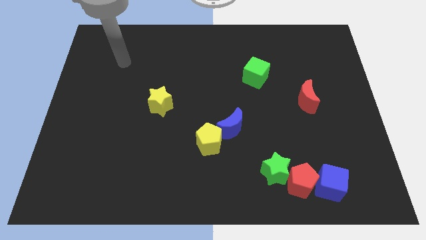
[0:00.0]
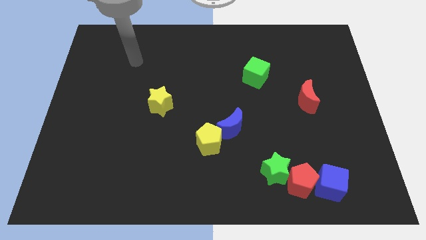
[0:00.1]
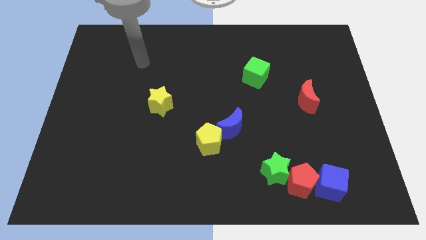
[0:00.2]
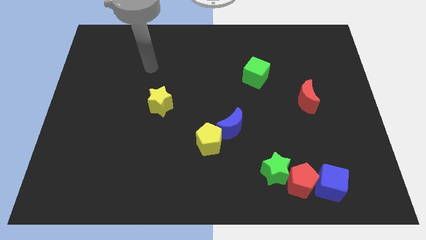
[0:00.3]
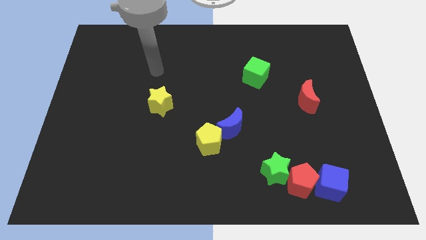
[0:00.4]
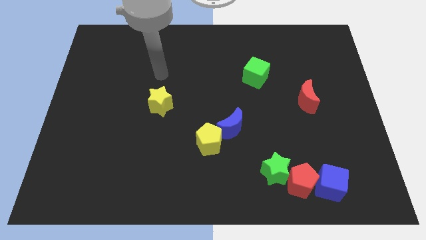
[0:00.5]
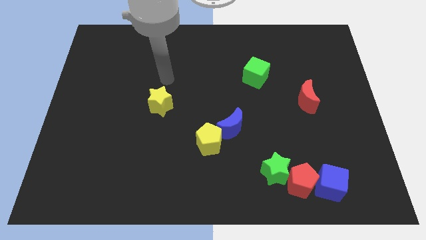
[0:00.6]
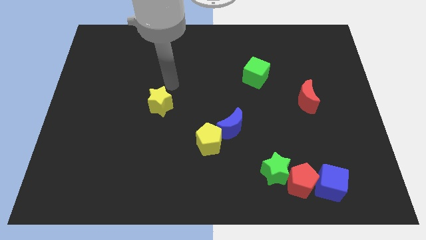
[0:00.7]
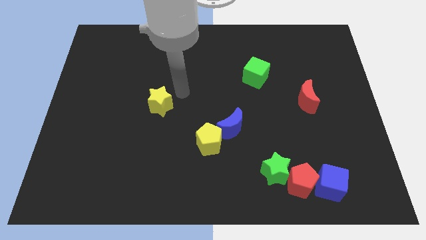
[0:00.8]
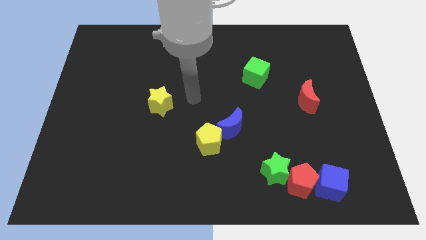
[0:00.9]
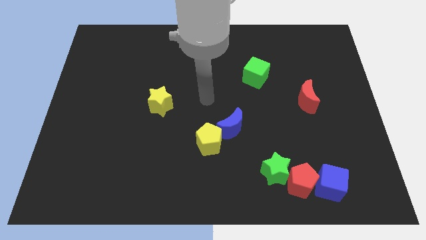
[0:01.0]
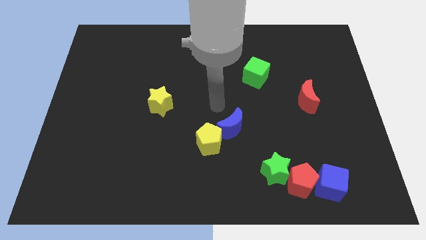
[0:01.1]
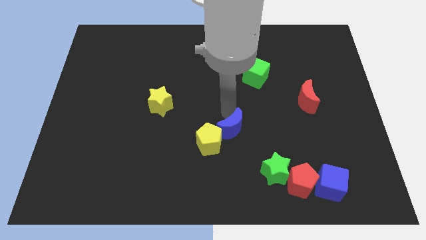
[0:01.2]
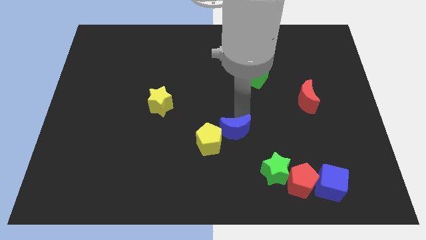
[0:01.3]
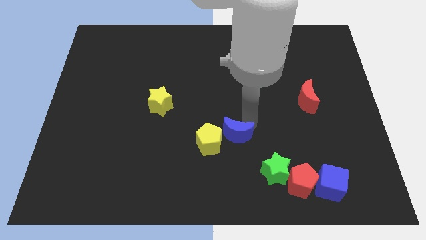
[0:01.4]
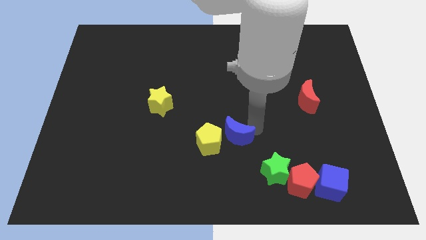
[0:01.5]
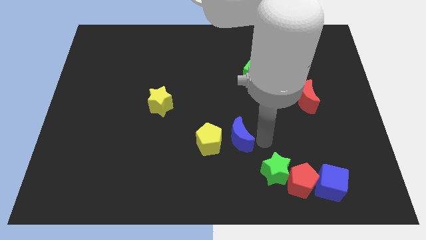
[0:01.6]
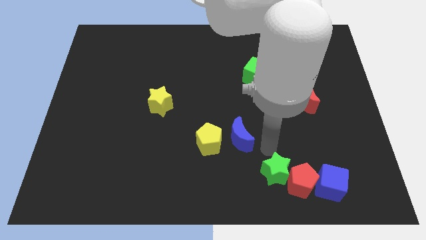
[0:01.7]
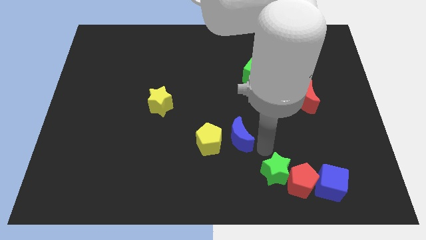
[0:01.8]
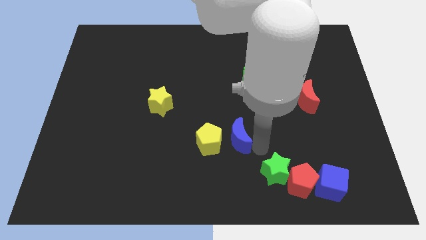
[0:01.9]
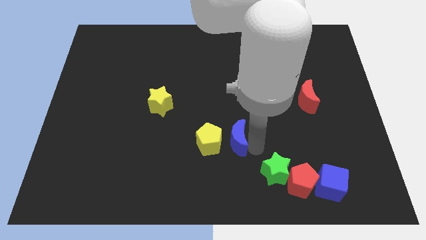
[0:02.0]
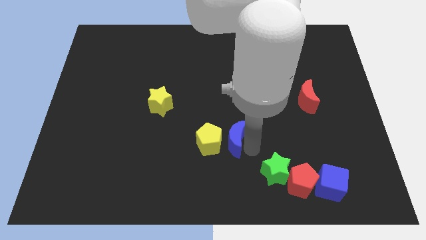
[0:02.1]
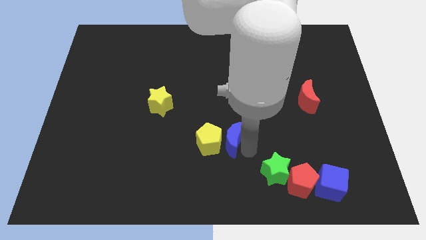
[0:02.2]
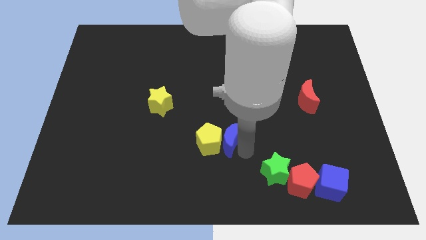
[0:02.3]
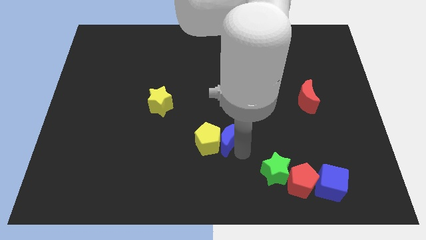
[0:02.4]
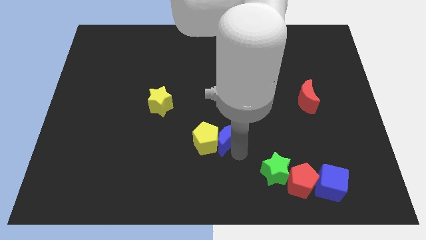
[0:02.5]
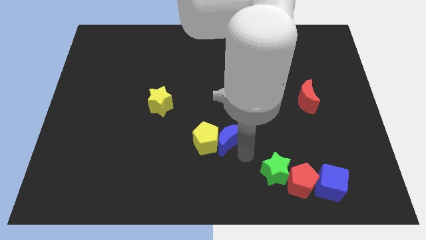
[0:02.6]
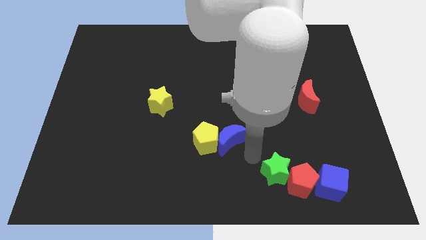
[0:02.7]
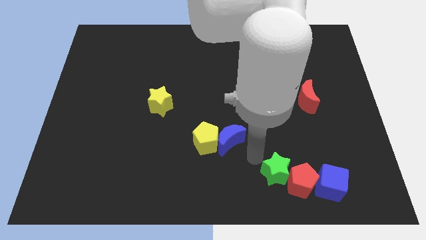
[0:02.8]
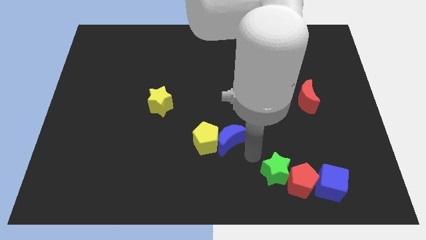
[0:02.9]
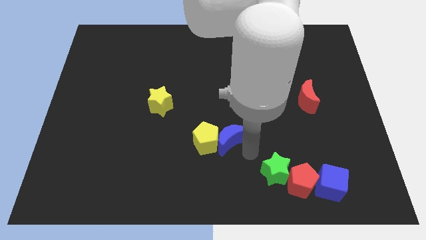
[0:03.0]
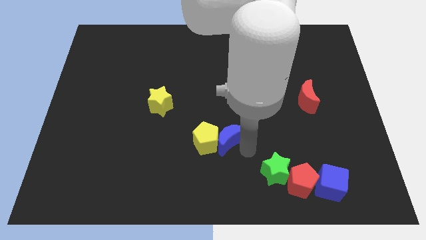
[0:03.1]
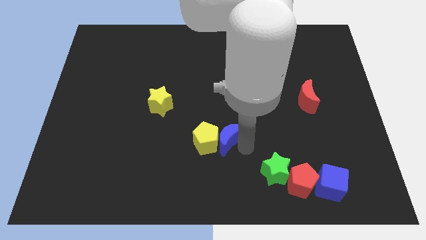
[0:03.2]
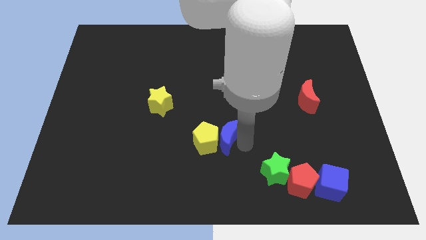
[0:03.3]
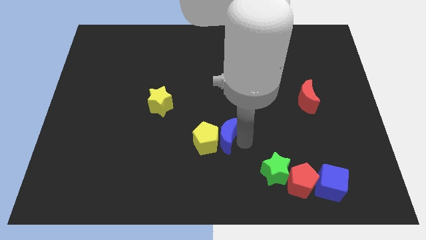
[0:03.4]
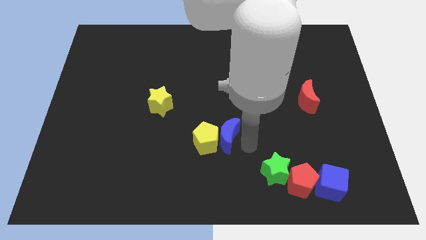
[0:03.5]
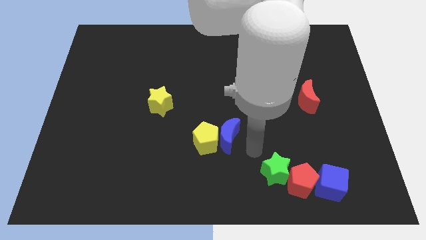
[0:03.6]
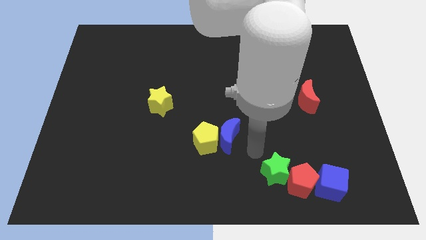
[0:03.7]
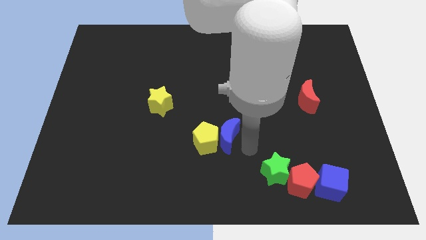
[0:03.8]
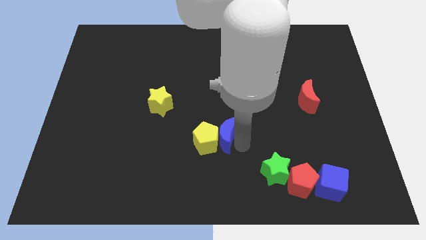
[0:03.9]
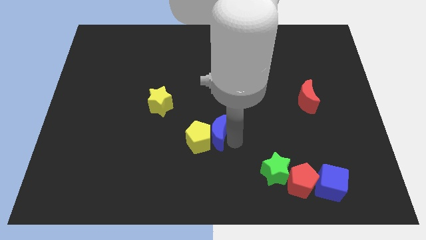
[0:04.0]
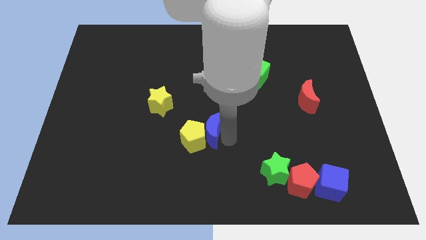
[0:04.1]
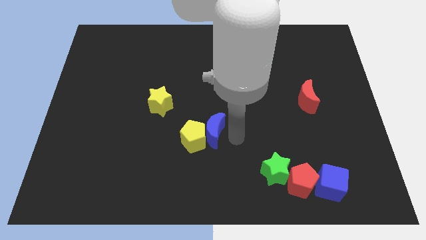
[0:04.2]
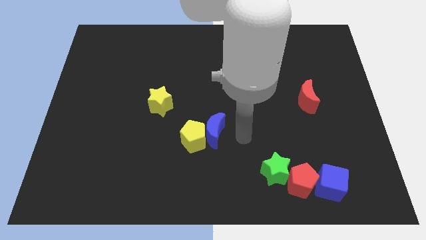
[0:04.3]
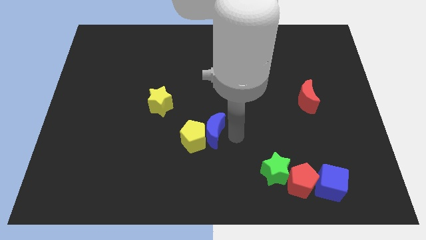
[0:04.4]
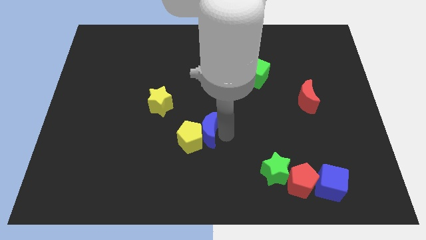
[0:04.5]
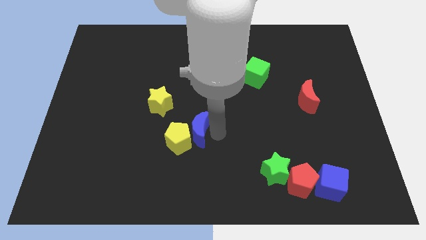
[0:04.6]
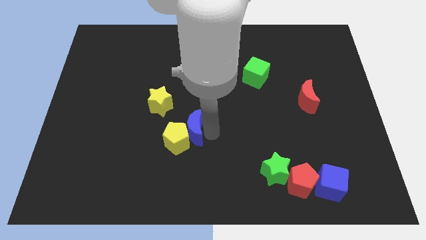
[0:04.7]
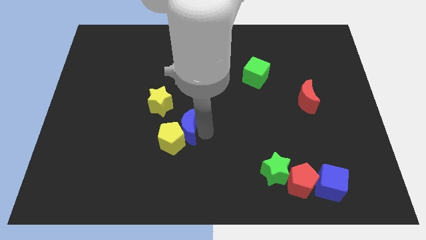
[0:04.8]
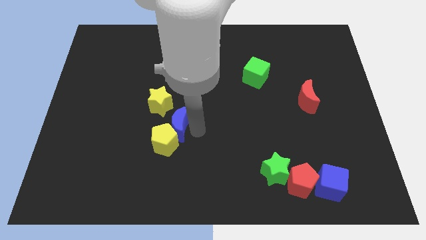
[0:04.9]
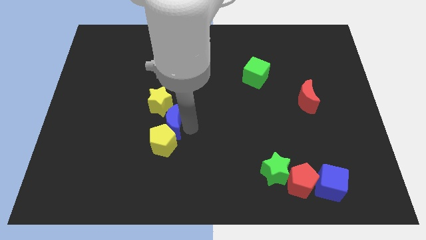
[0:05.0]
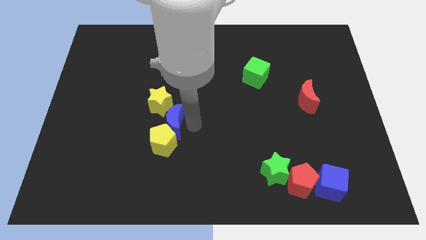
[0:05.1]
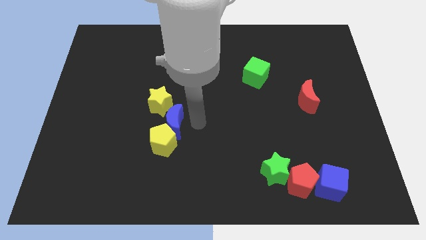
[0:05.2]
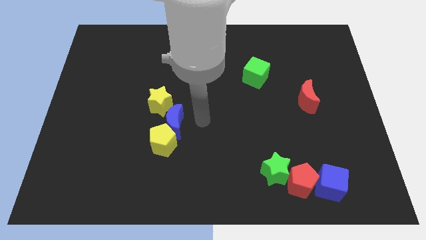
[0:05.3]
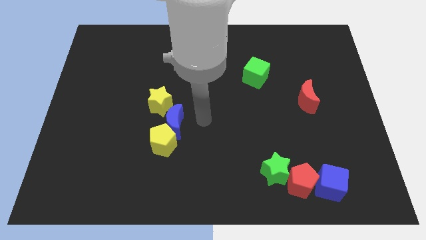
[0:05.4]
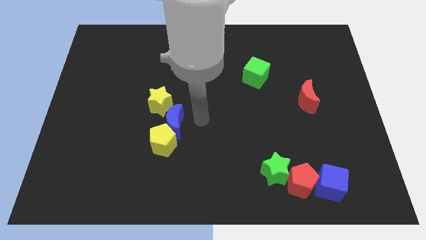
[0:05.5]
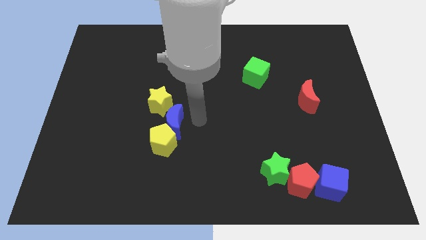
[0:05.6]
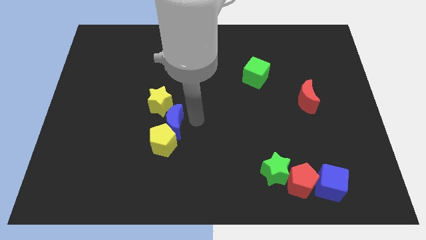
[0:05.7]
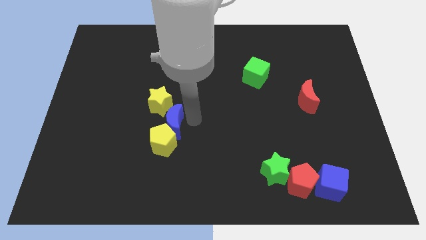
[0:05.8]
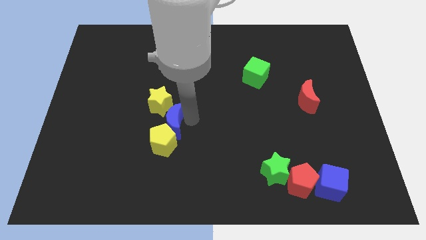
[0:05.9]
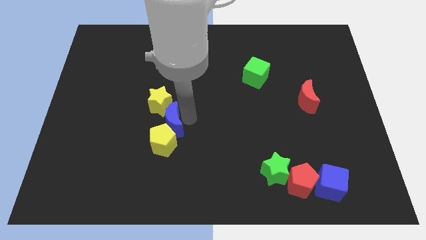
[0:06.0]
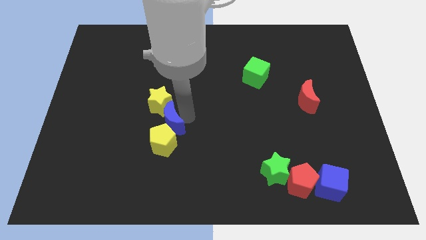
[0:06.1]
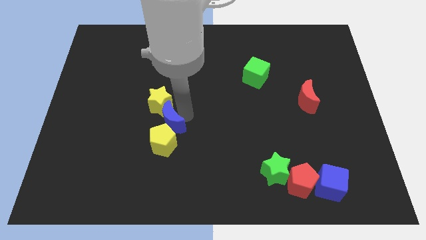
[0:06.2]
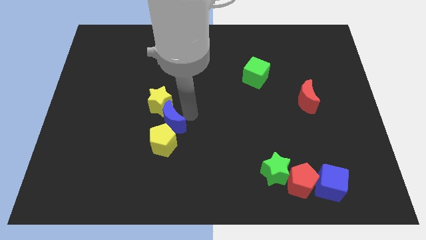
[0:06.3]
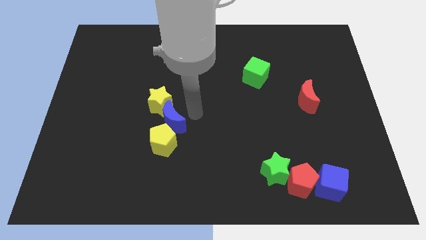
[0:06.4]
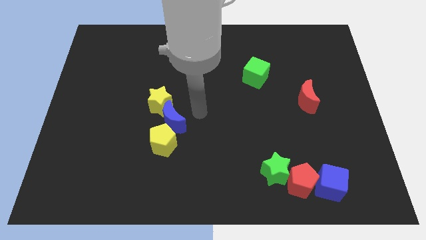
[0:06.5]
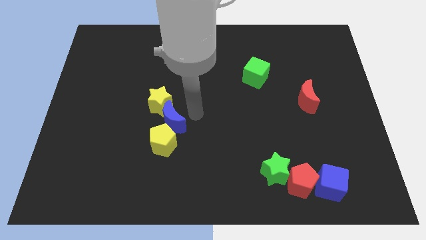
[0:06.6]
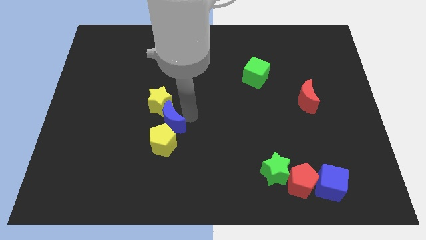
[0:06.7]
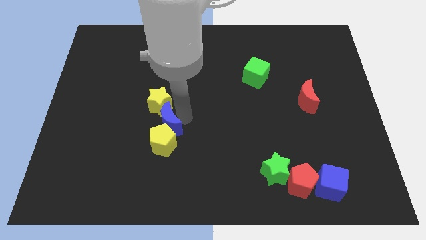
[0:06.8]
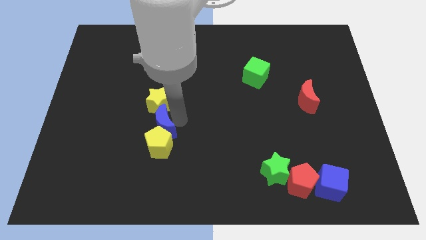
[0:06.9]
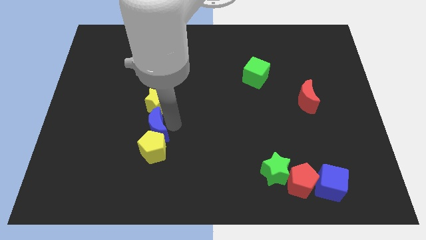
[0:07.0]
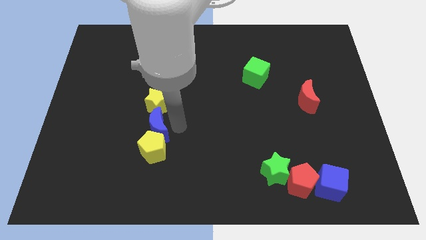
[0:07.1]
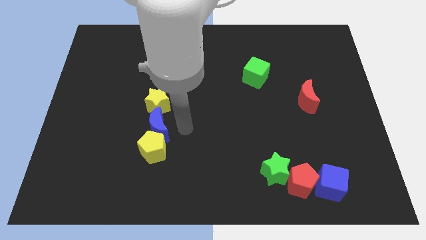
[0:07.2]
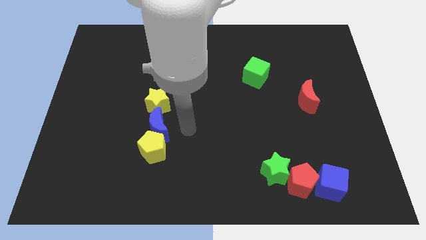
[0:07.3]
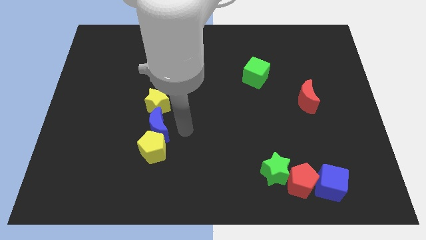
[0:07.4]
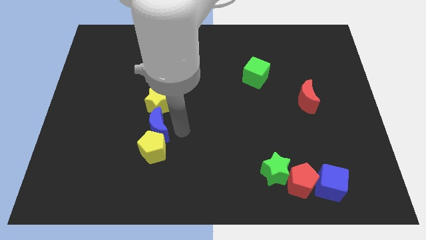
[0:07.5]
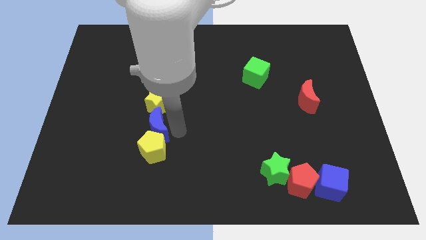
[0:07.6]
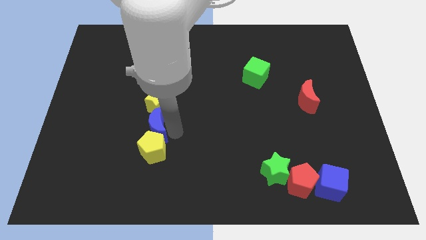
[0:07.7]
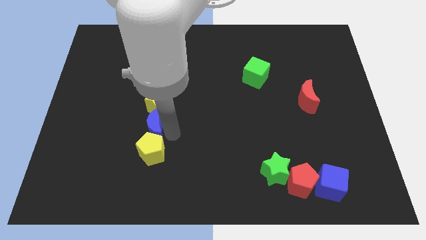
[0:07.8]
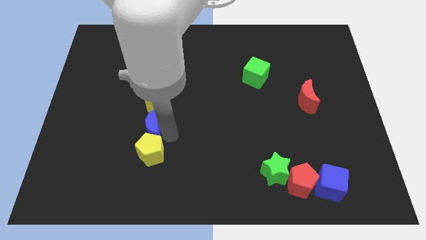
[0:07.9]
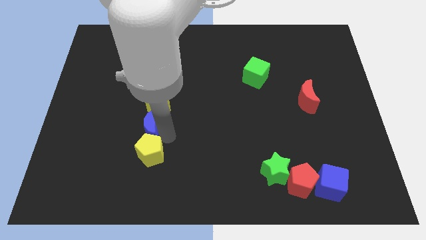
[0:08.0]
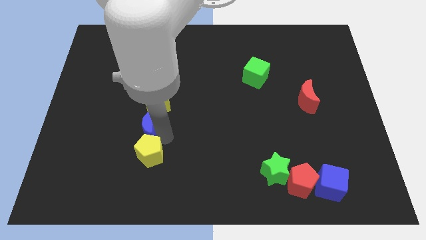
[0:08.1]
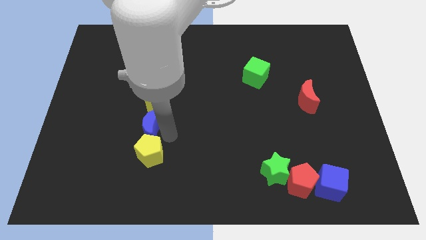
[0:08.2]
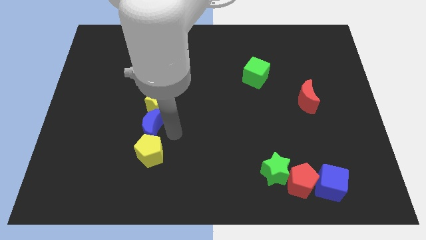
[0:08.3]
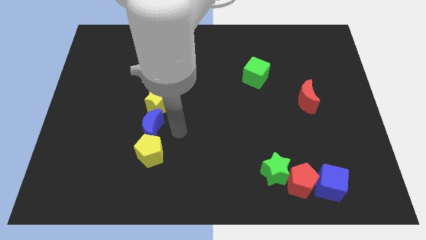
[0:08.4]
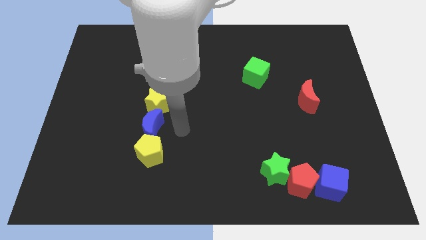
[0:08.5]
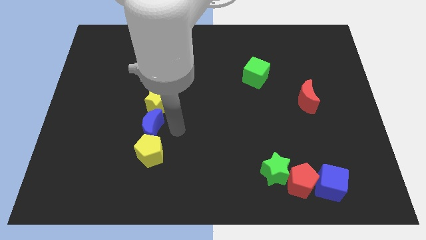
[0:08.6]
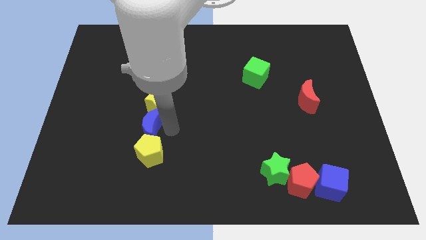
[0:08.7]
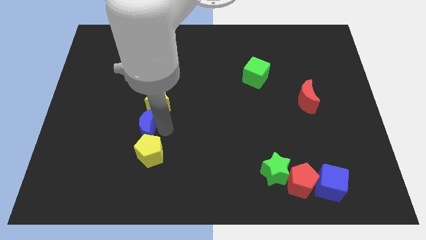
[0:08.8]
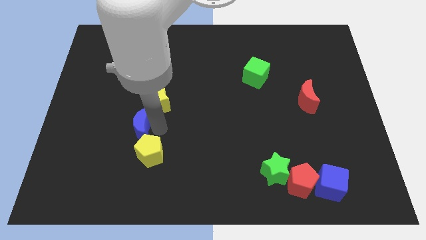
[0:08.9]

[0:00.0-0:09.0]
push the blue moon to the left
